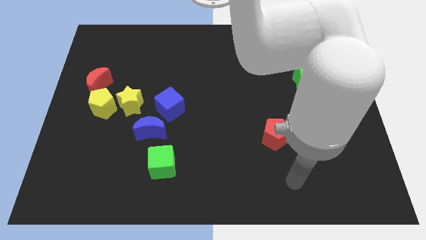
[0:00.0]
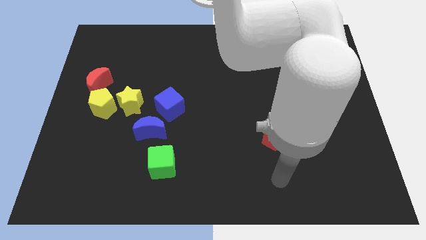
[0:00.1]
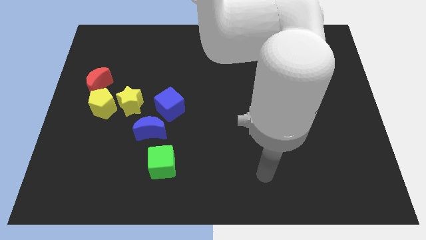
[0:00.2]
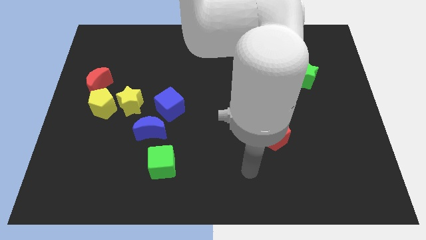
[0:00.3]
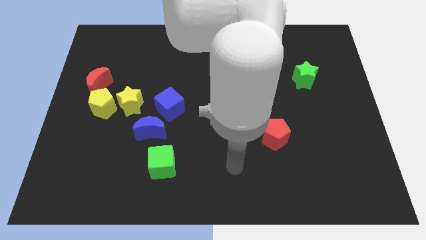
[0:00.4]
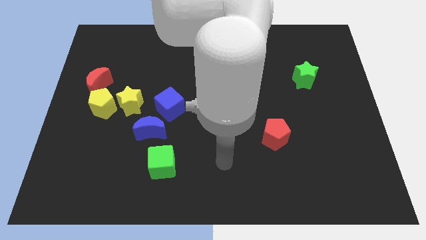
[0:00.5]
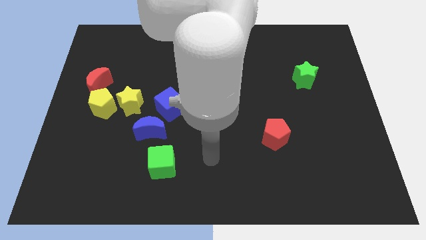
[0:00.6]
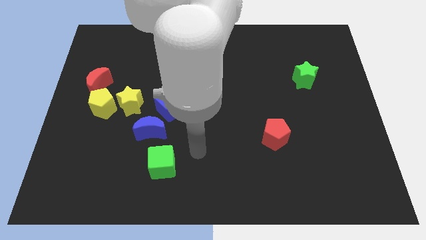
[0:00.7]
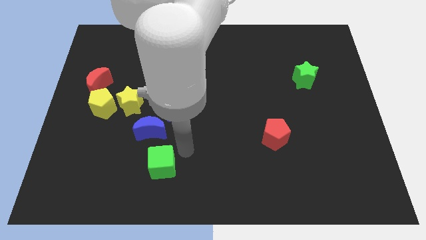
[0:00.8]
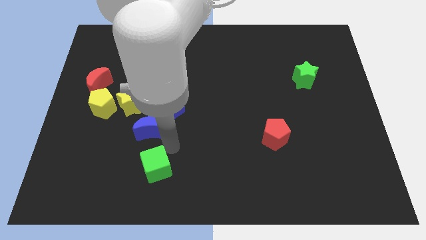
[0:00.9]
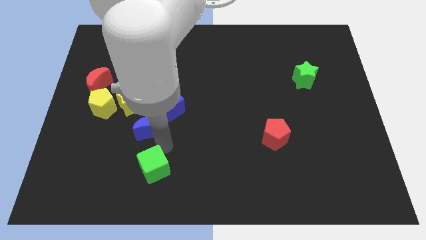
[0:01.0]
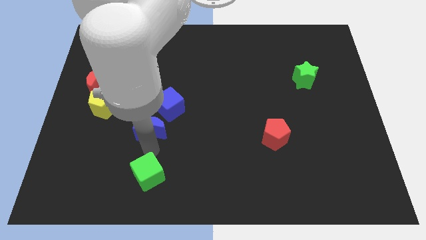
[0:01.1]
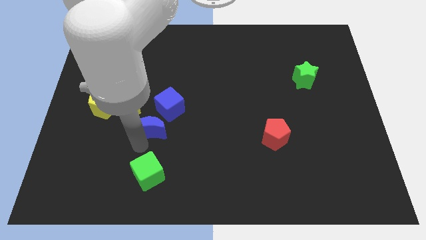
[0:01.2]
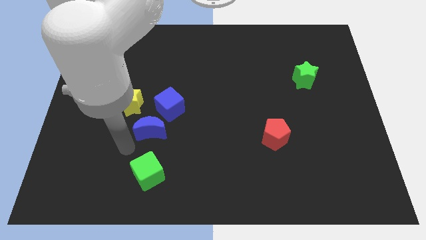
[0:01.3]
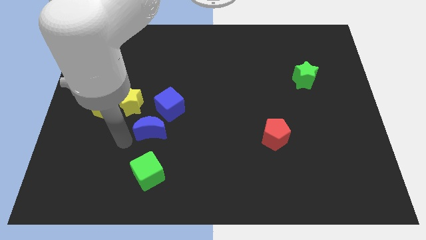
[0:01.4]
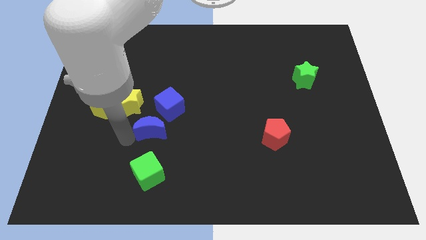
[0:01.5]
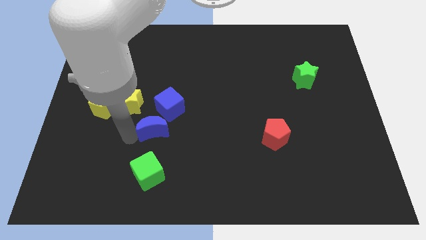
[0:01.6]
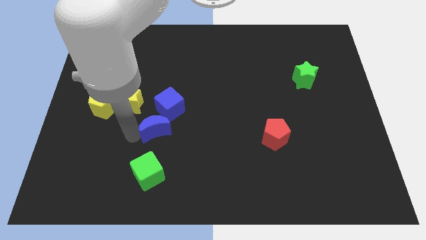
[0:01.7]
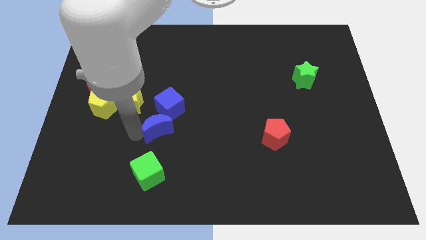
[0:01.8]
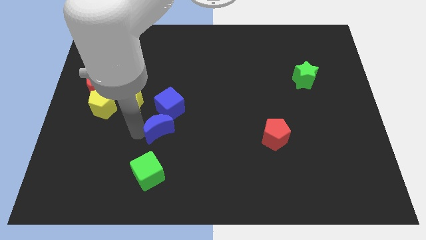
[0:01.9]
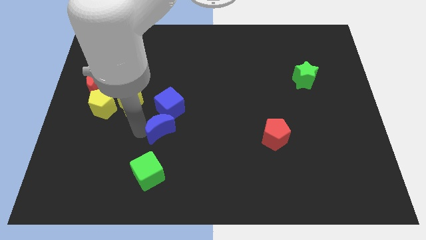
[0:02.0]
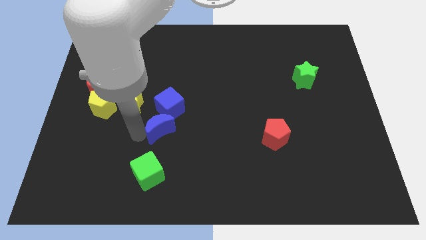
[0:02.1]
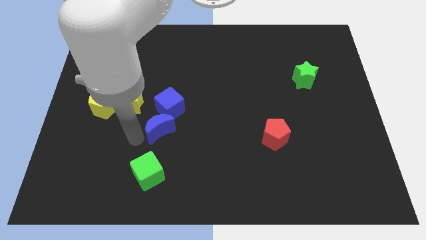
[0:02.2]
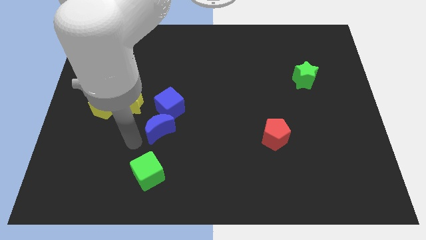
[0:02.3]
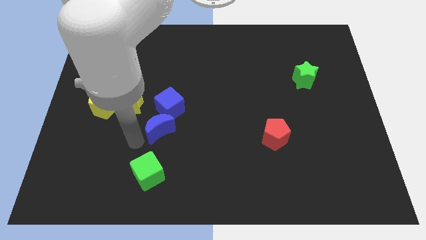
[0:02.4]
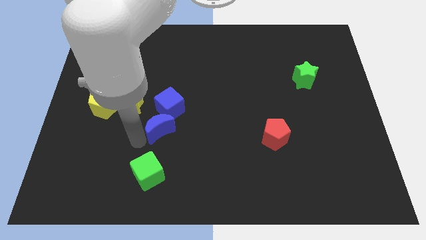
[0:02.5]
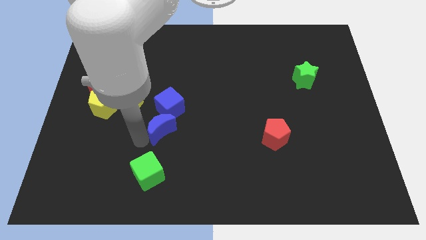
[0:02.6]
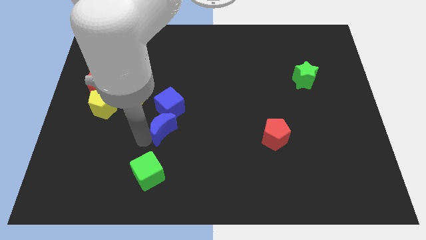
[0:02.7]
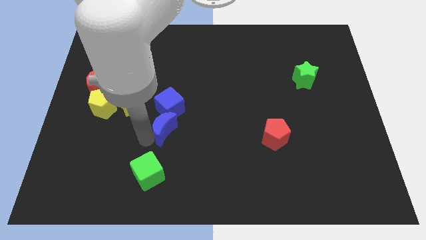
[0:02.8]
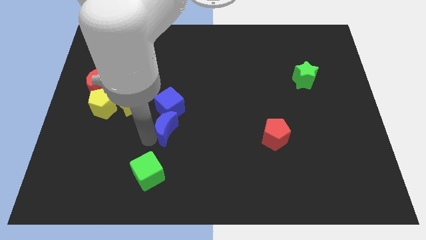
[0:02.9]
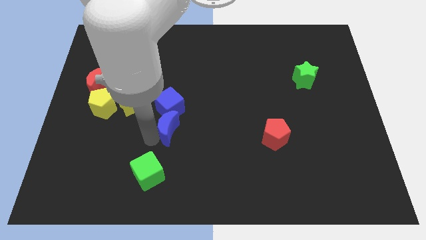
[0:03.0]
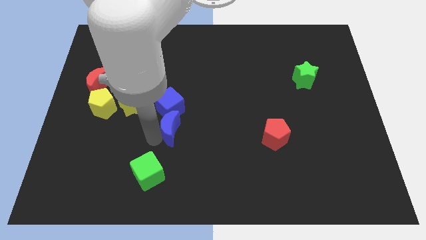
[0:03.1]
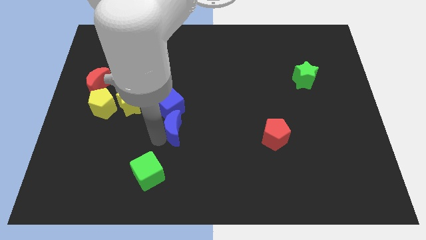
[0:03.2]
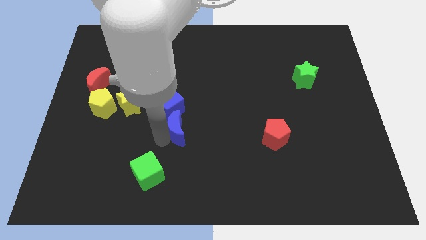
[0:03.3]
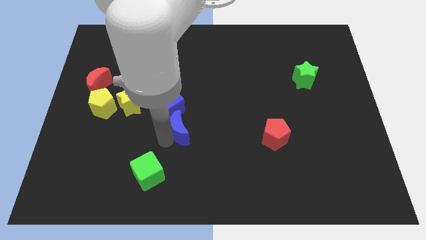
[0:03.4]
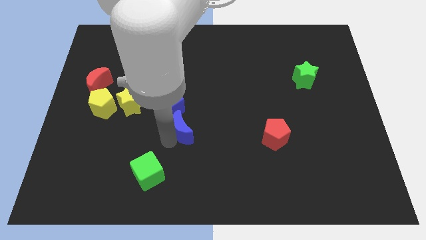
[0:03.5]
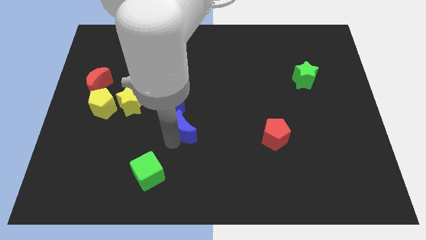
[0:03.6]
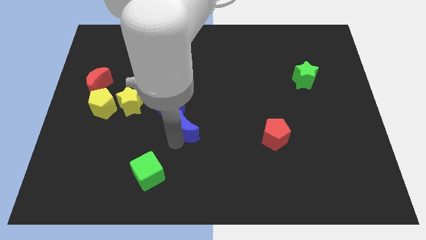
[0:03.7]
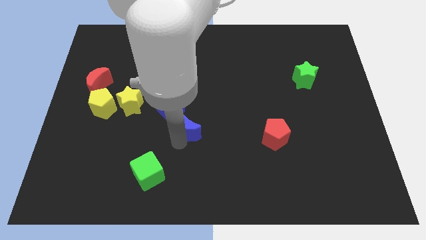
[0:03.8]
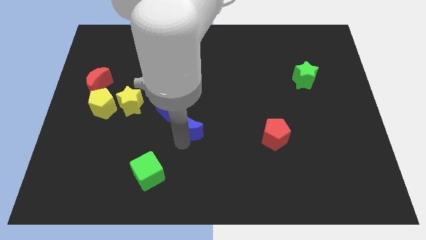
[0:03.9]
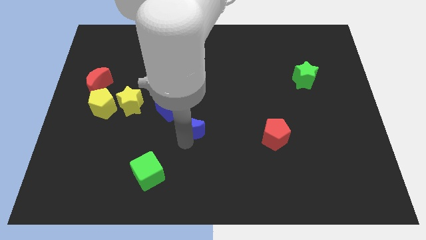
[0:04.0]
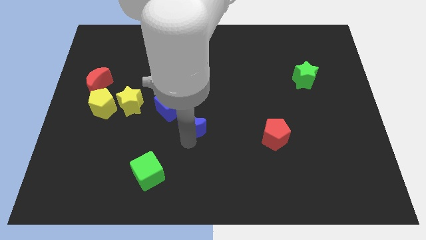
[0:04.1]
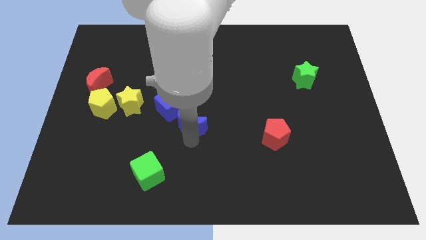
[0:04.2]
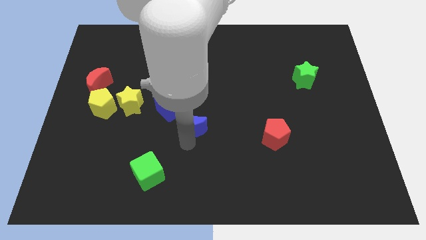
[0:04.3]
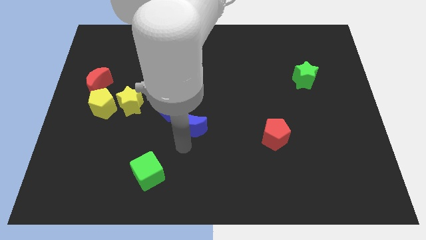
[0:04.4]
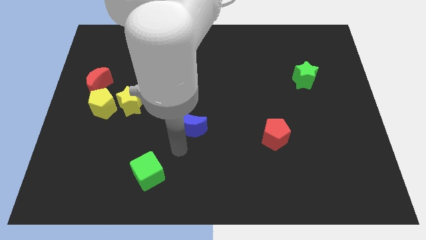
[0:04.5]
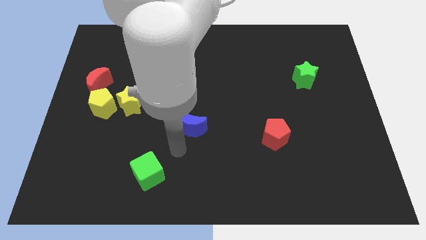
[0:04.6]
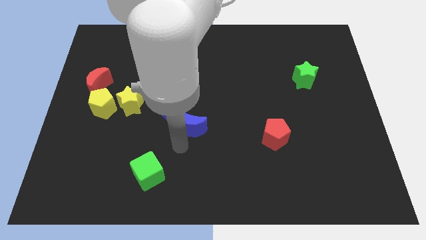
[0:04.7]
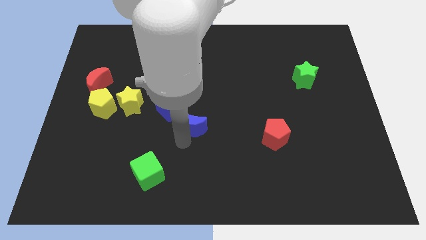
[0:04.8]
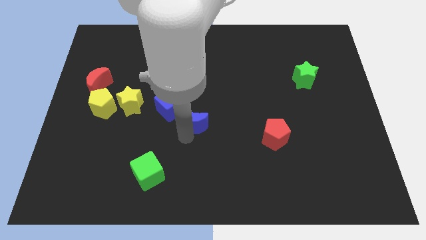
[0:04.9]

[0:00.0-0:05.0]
push the blue moon a bit diagonally up and to the right

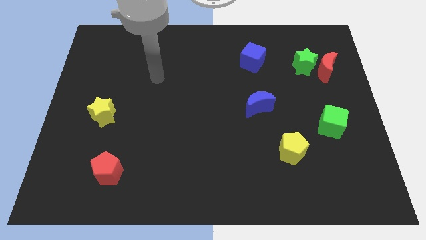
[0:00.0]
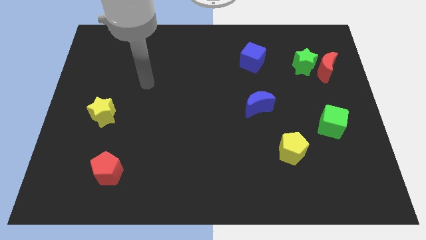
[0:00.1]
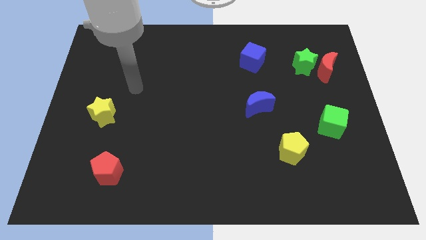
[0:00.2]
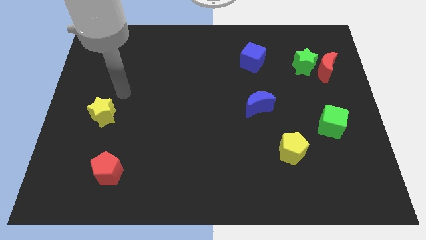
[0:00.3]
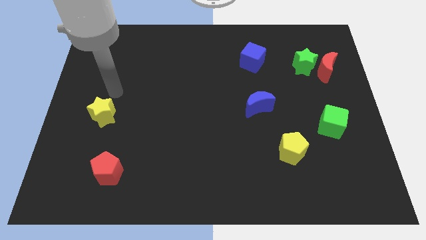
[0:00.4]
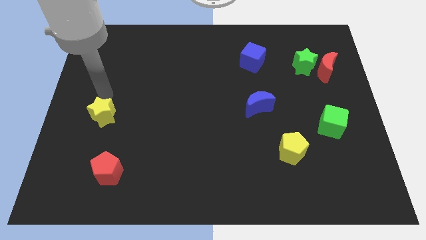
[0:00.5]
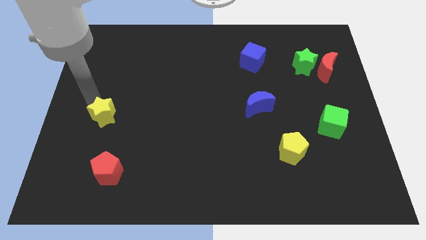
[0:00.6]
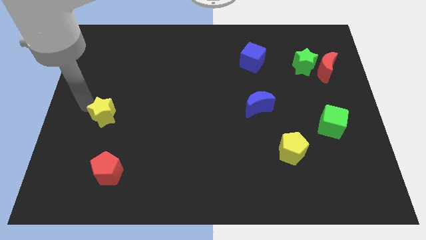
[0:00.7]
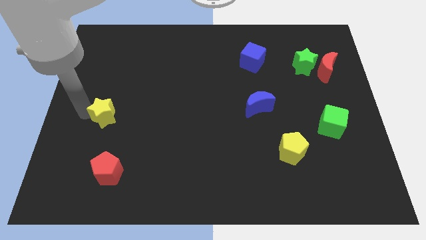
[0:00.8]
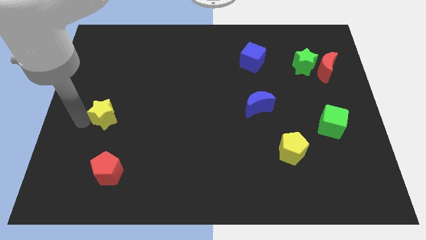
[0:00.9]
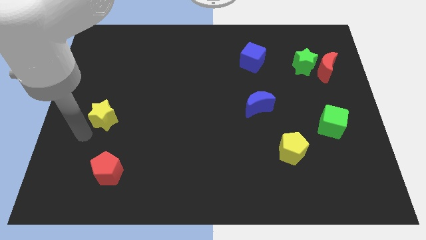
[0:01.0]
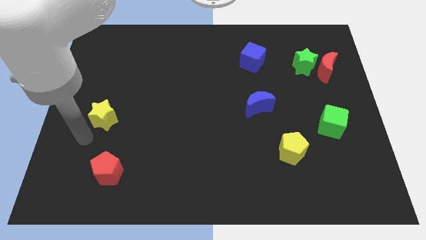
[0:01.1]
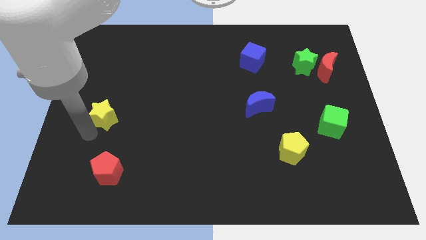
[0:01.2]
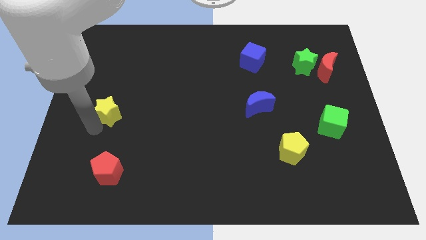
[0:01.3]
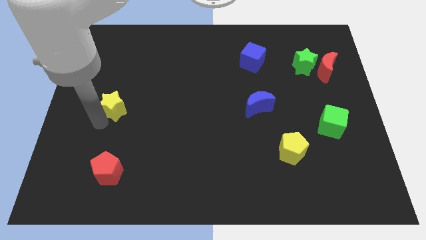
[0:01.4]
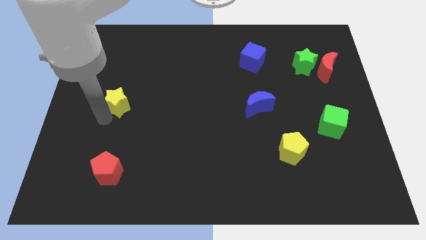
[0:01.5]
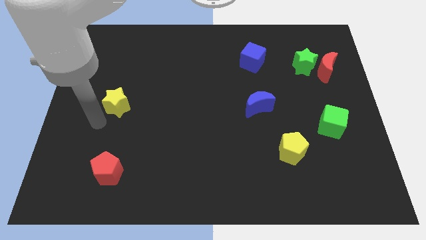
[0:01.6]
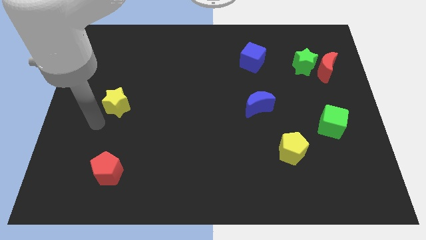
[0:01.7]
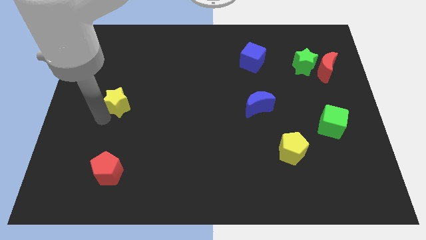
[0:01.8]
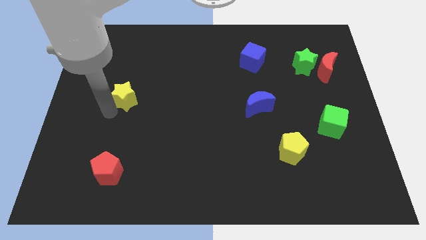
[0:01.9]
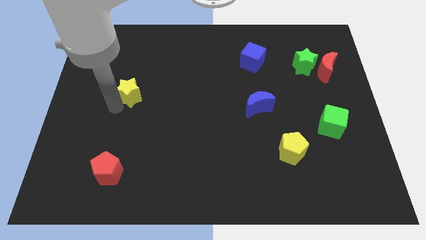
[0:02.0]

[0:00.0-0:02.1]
push the yellow star a little diagonally upwards and to the right

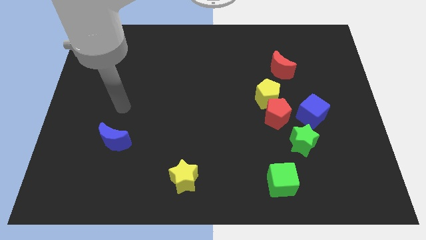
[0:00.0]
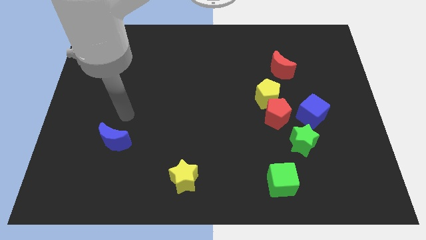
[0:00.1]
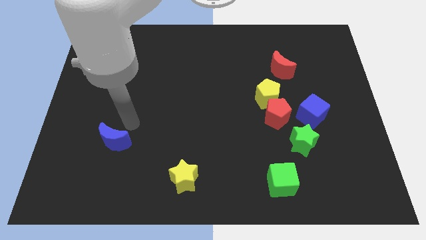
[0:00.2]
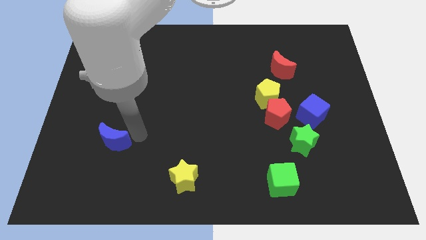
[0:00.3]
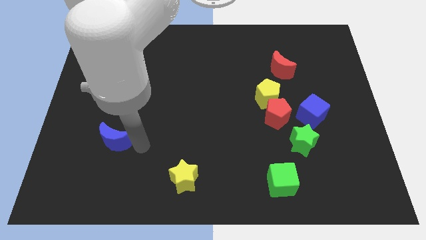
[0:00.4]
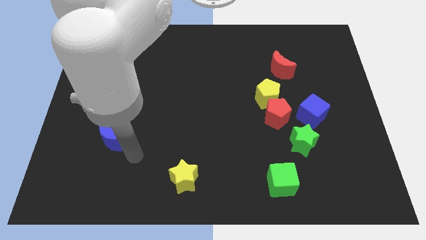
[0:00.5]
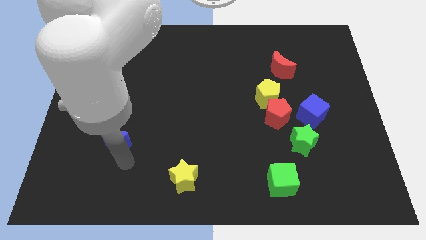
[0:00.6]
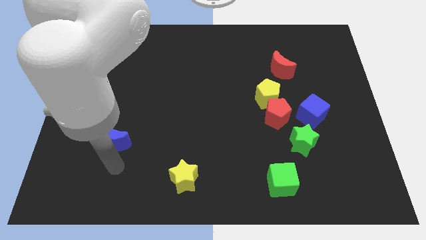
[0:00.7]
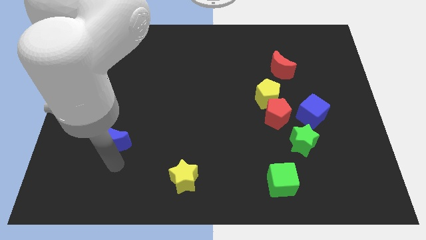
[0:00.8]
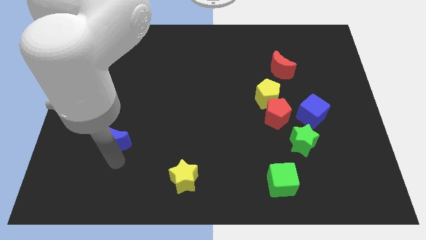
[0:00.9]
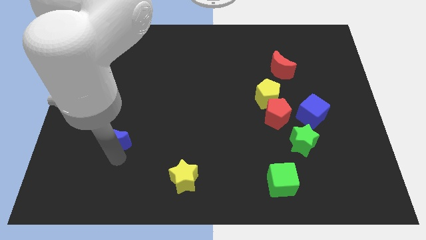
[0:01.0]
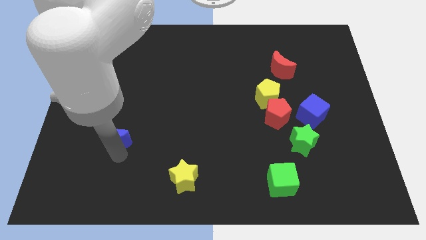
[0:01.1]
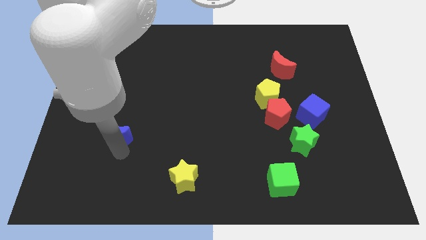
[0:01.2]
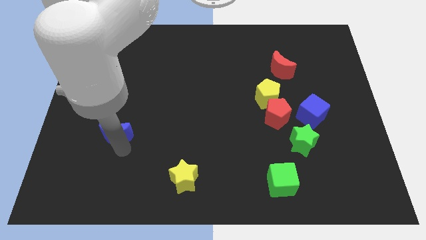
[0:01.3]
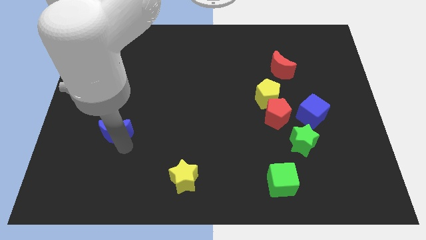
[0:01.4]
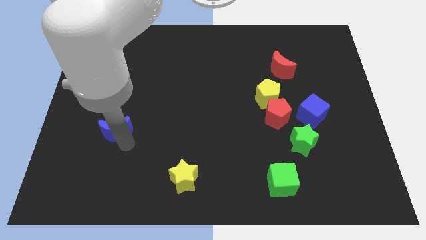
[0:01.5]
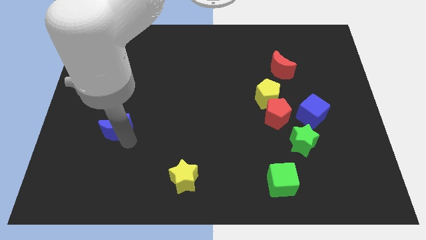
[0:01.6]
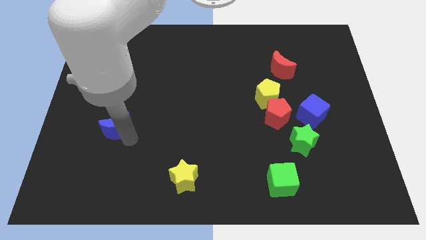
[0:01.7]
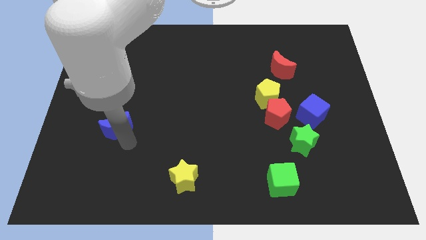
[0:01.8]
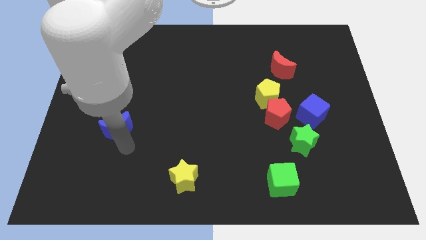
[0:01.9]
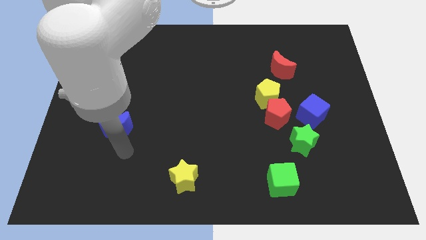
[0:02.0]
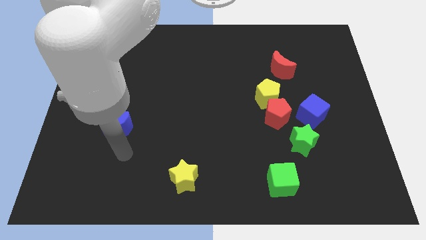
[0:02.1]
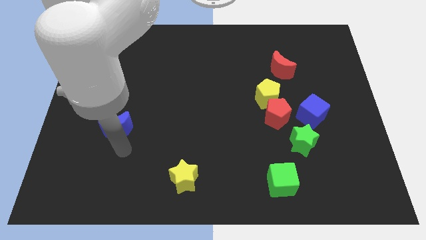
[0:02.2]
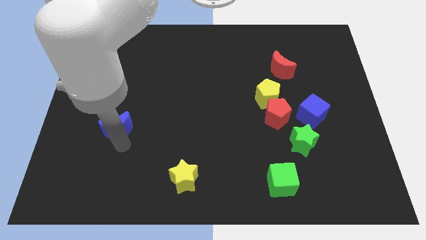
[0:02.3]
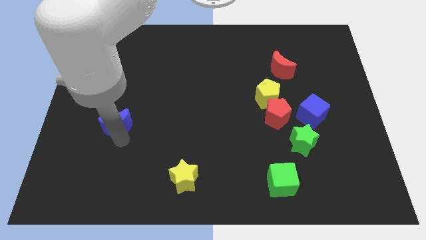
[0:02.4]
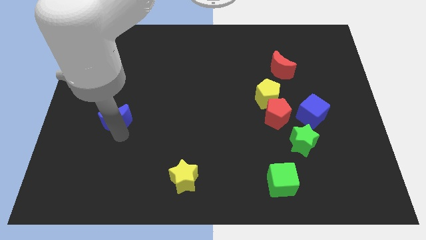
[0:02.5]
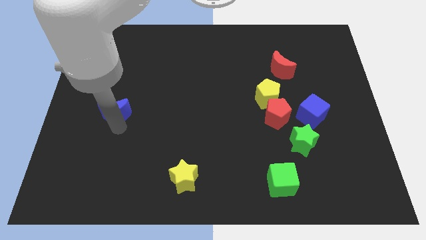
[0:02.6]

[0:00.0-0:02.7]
push the blue moon a bit upwards
